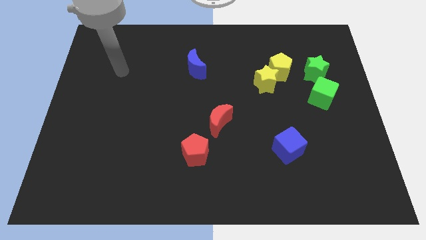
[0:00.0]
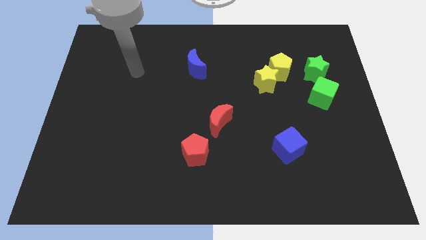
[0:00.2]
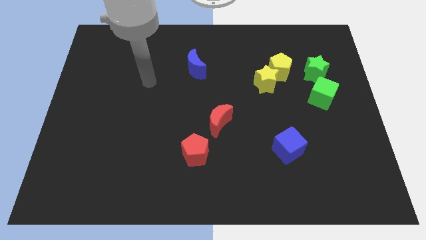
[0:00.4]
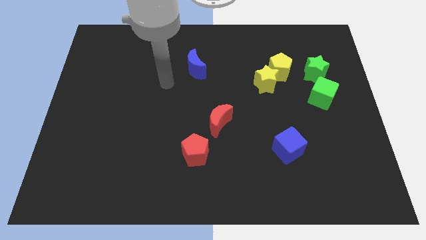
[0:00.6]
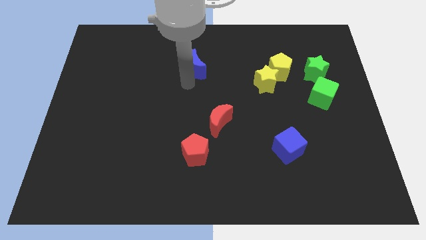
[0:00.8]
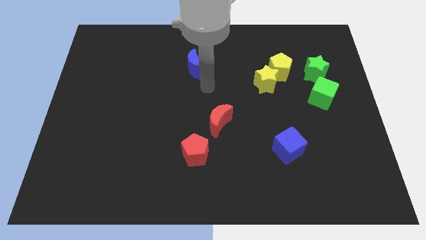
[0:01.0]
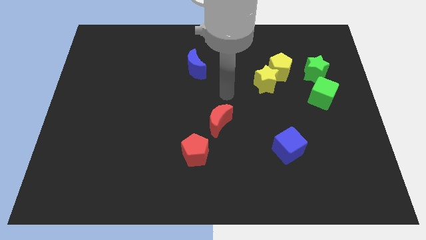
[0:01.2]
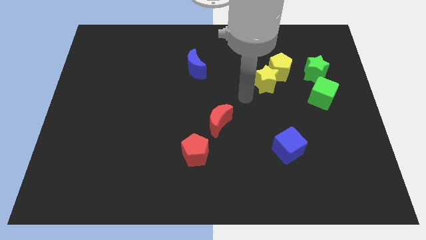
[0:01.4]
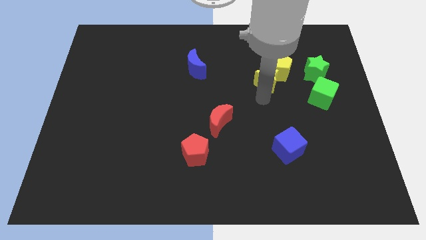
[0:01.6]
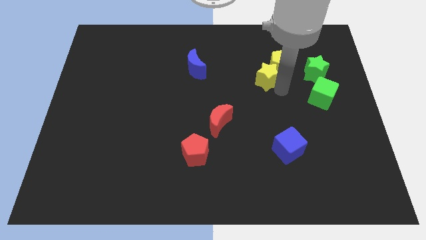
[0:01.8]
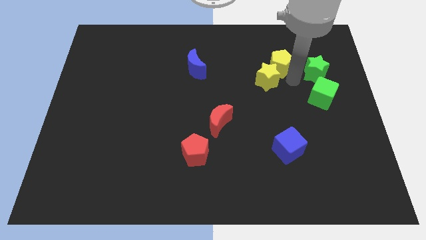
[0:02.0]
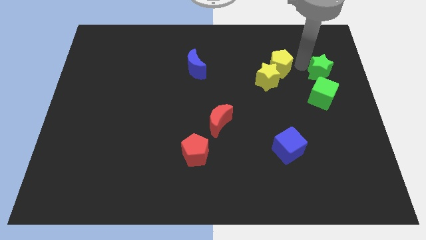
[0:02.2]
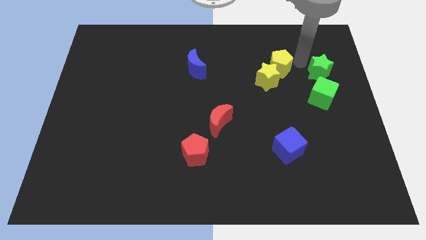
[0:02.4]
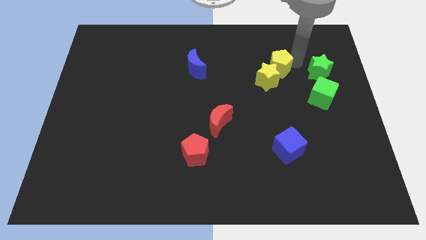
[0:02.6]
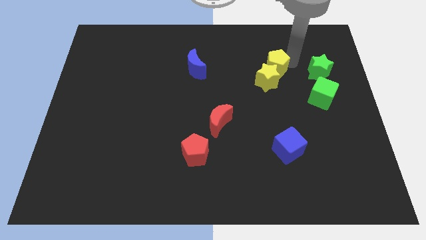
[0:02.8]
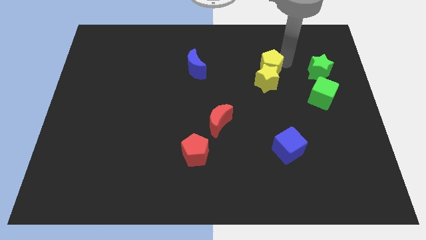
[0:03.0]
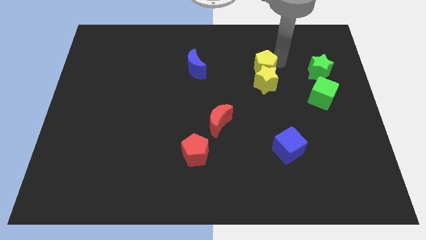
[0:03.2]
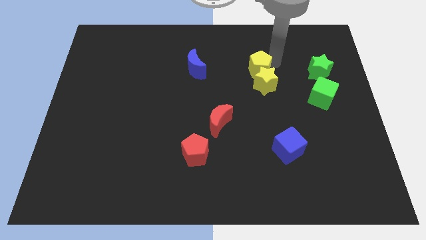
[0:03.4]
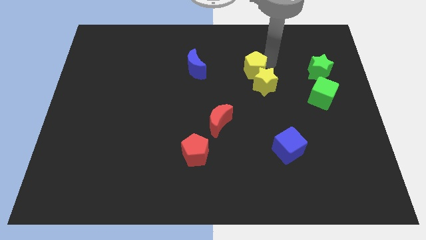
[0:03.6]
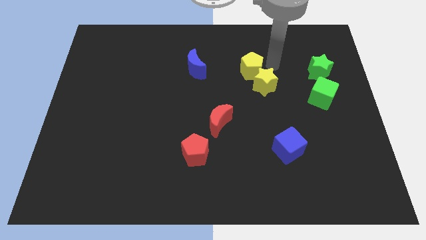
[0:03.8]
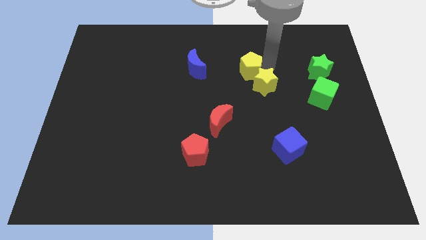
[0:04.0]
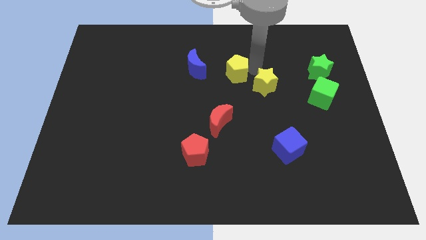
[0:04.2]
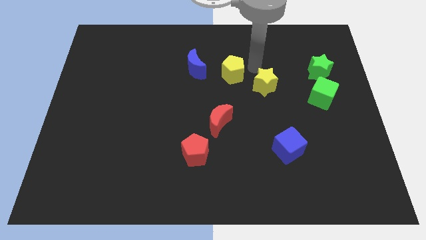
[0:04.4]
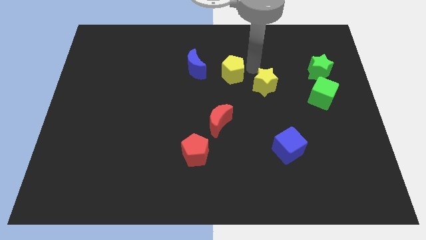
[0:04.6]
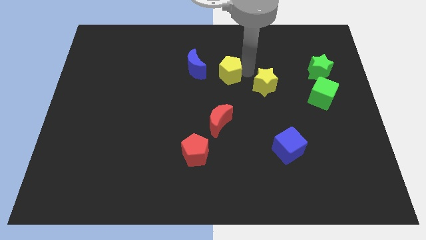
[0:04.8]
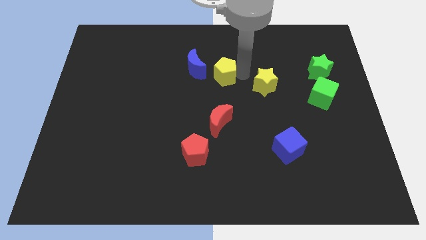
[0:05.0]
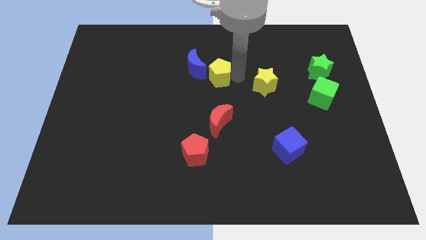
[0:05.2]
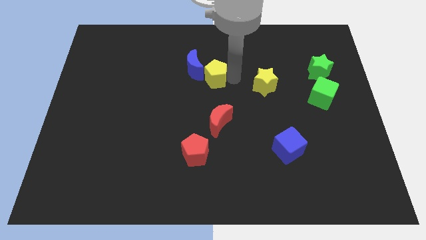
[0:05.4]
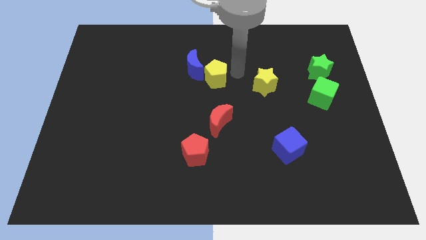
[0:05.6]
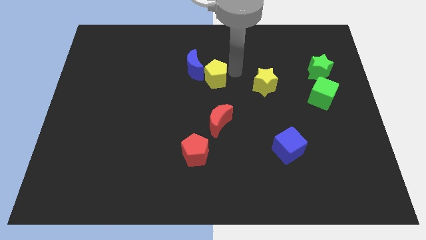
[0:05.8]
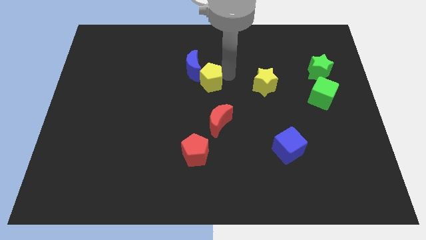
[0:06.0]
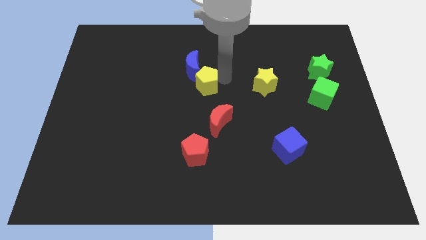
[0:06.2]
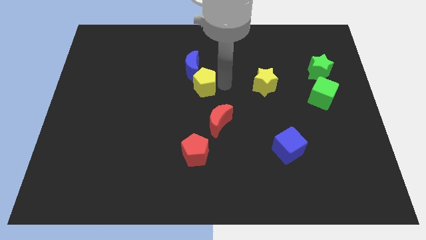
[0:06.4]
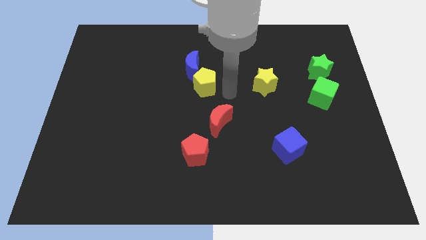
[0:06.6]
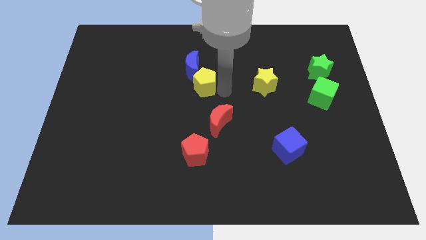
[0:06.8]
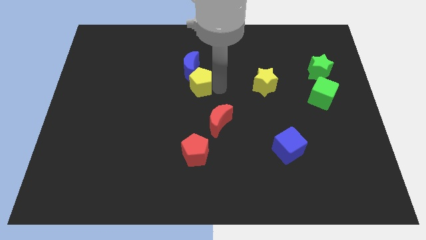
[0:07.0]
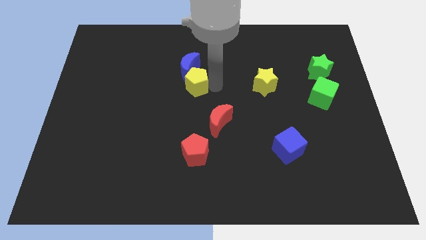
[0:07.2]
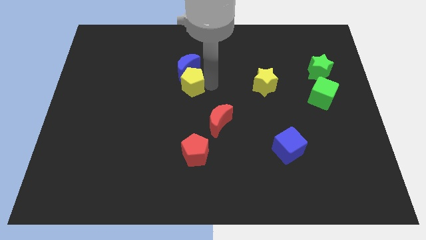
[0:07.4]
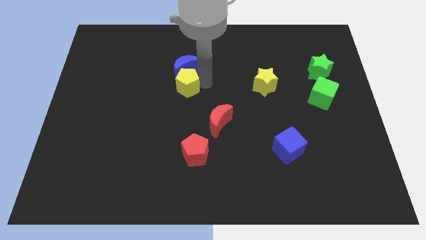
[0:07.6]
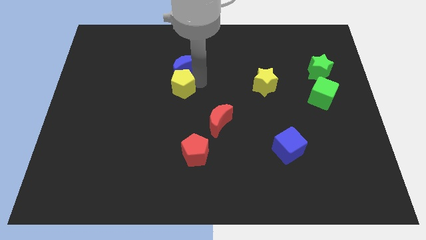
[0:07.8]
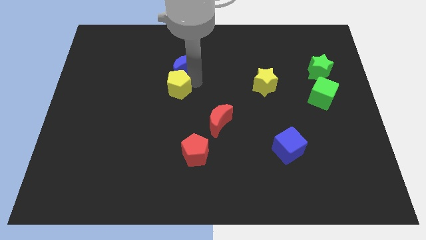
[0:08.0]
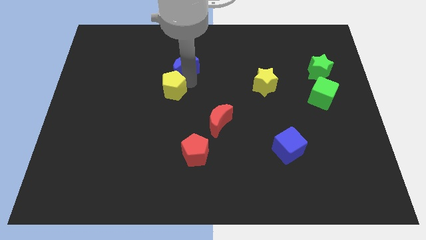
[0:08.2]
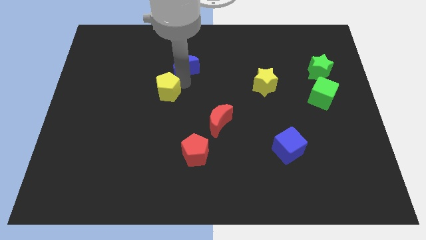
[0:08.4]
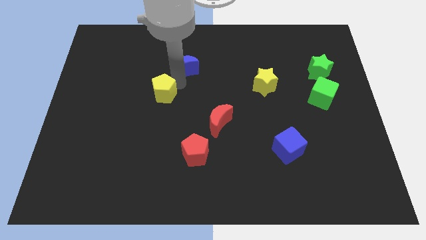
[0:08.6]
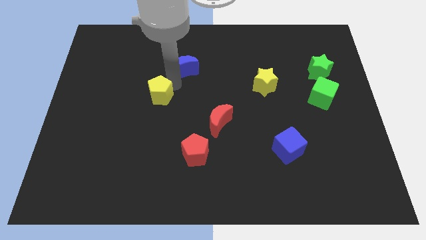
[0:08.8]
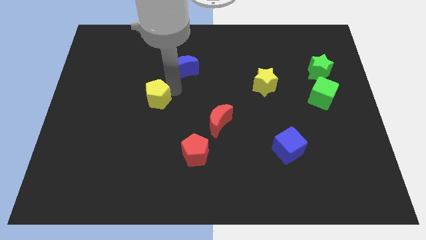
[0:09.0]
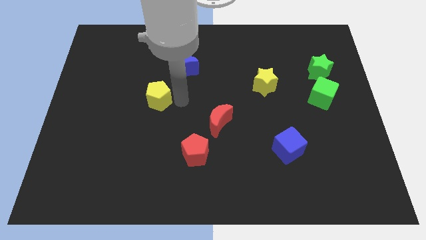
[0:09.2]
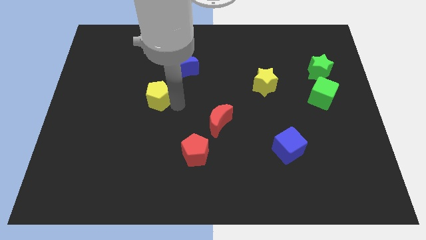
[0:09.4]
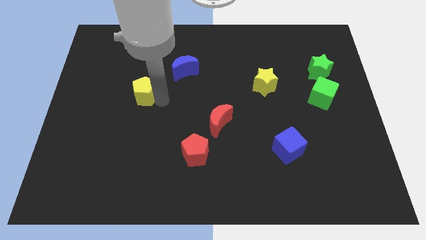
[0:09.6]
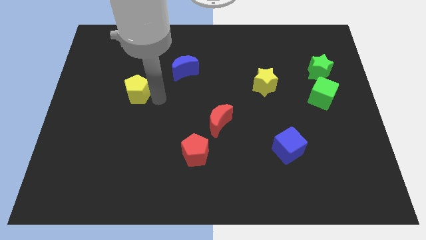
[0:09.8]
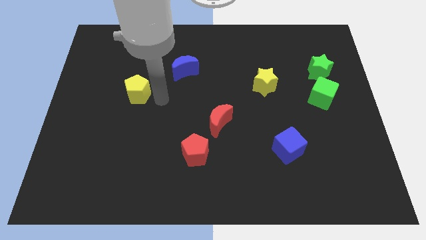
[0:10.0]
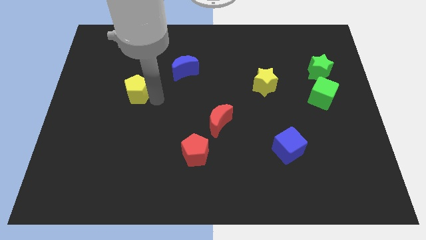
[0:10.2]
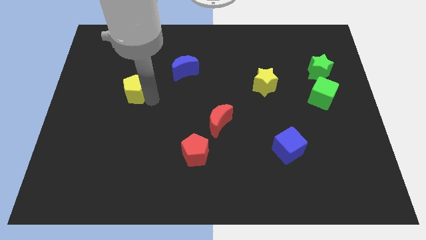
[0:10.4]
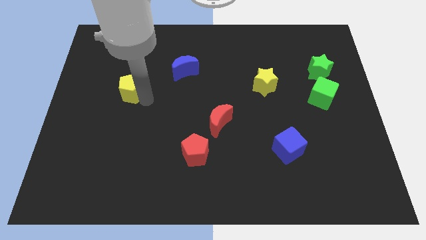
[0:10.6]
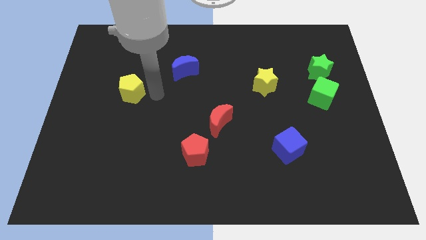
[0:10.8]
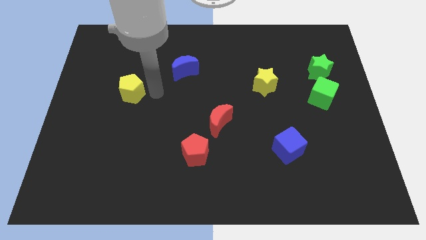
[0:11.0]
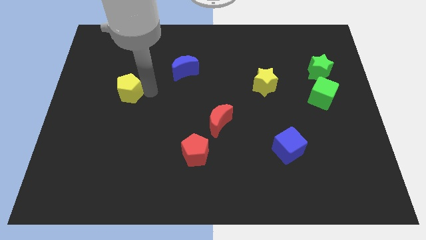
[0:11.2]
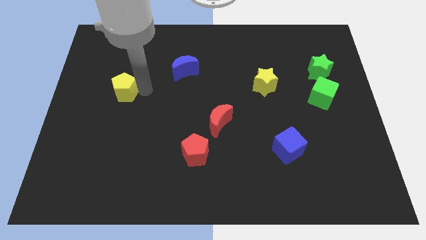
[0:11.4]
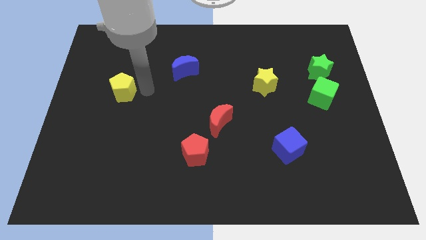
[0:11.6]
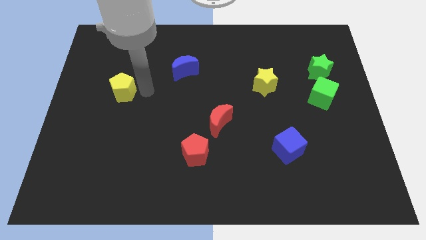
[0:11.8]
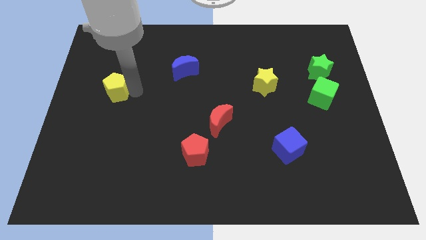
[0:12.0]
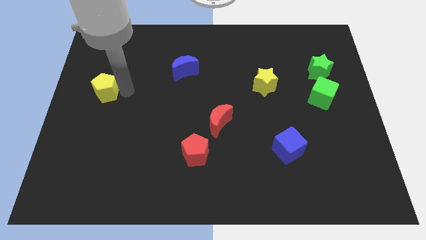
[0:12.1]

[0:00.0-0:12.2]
put the yellow pentagon to the left side of the board

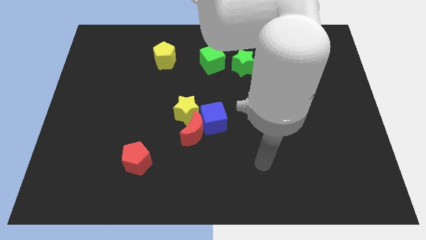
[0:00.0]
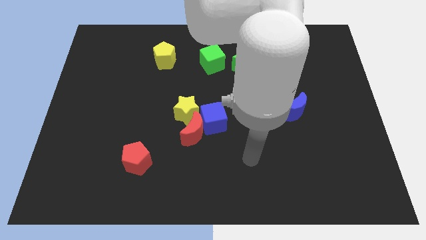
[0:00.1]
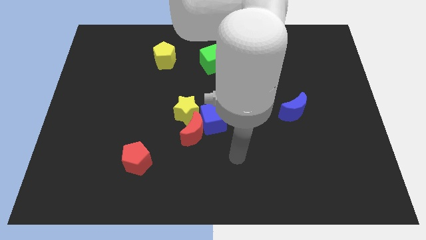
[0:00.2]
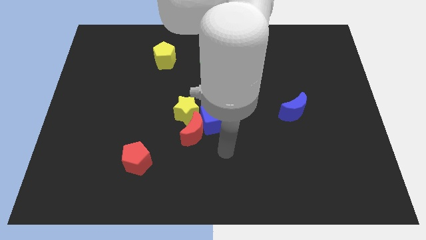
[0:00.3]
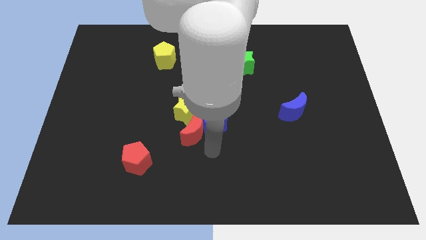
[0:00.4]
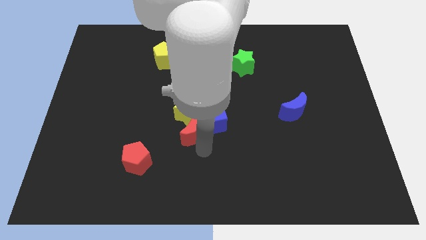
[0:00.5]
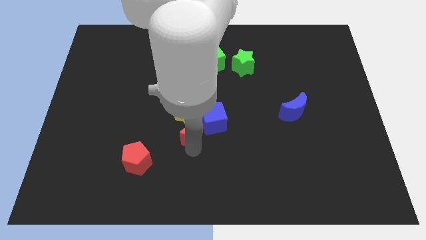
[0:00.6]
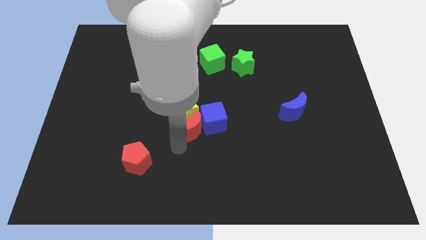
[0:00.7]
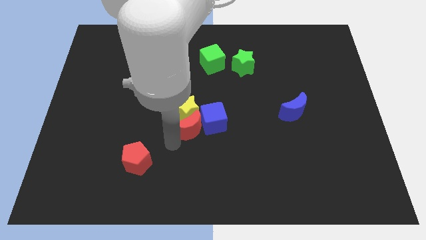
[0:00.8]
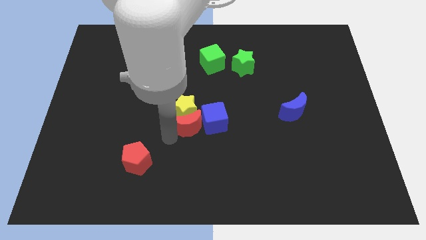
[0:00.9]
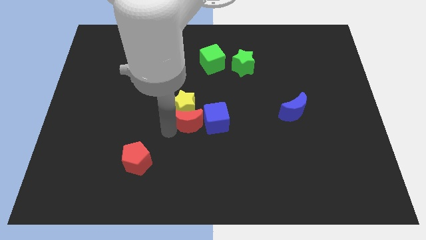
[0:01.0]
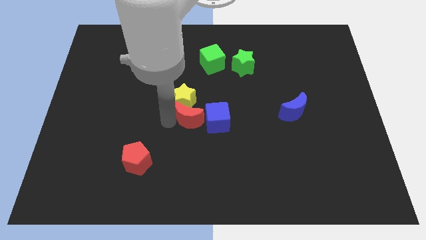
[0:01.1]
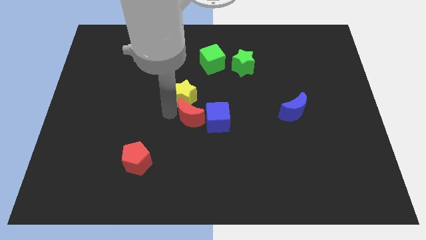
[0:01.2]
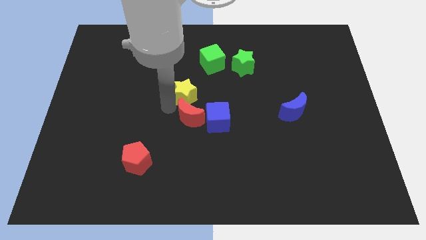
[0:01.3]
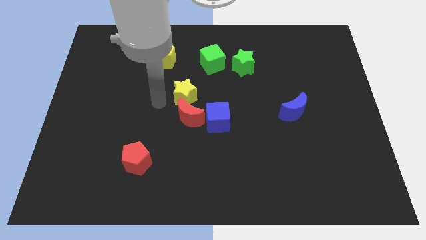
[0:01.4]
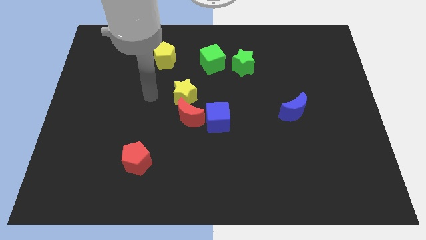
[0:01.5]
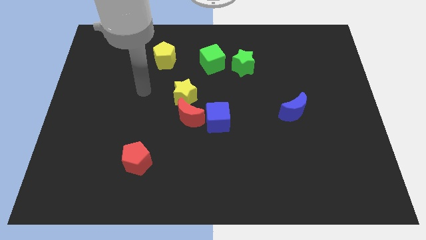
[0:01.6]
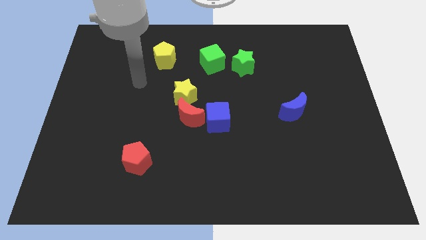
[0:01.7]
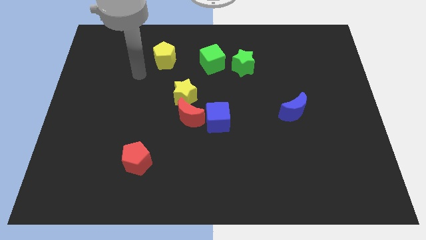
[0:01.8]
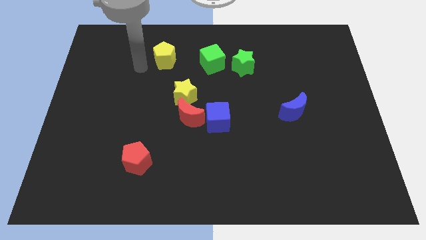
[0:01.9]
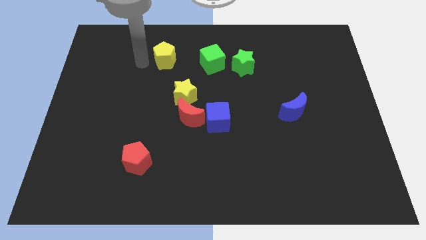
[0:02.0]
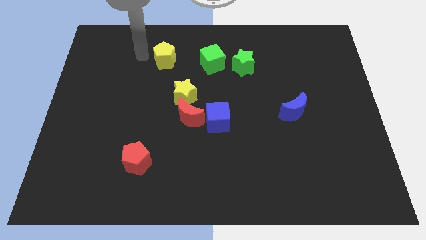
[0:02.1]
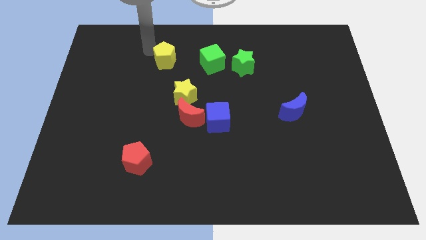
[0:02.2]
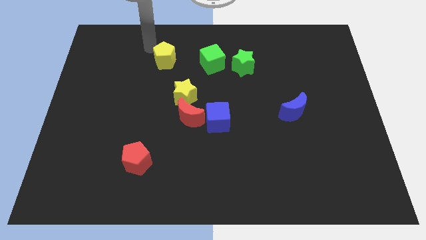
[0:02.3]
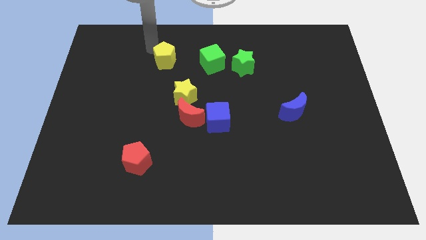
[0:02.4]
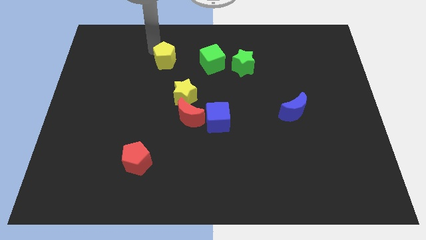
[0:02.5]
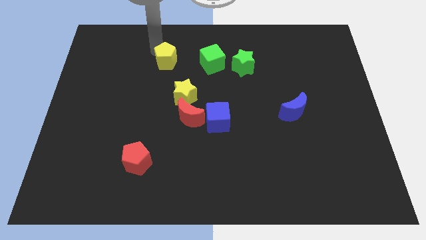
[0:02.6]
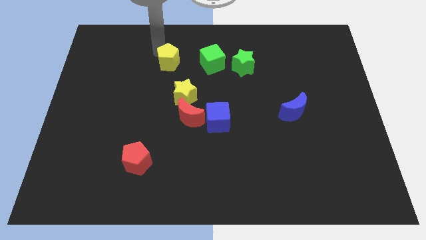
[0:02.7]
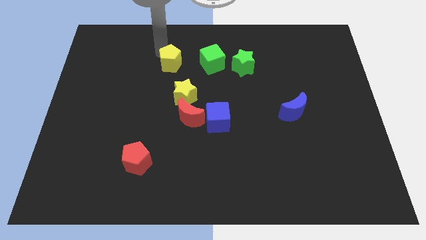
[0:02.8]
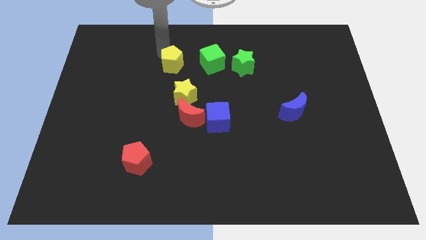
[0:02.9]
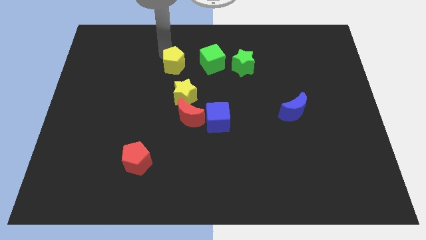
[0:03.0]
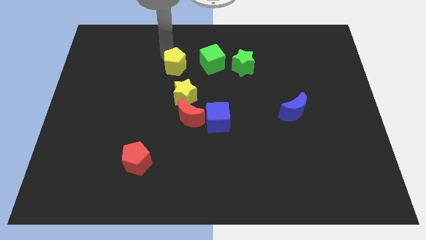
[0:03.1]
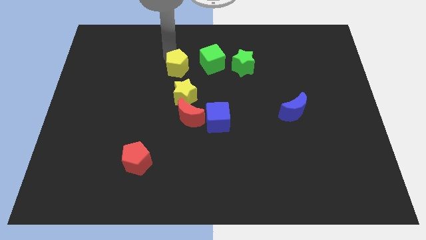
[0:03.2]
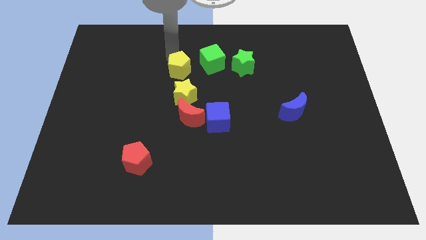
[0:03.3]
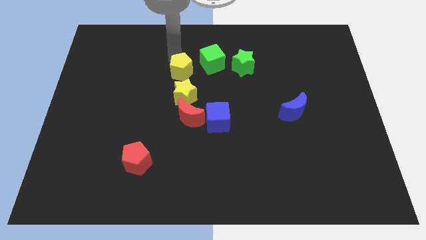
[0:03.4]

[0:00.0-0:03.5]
put the yellow pentagon to the middle
